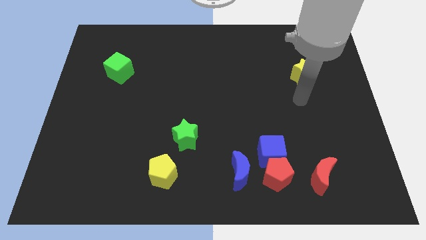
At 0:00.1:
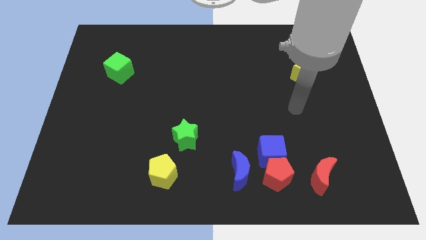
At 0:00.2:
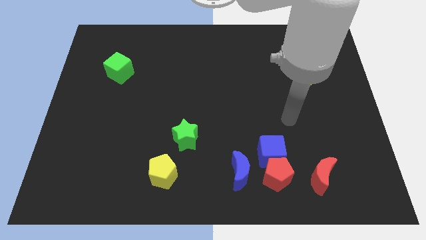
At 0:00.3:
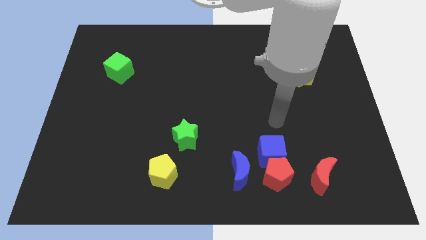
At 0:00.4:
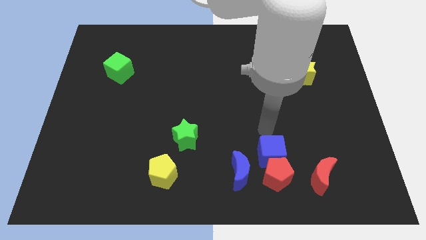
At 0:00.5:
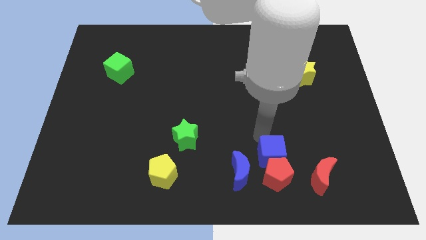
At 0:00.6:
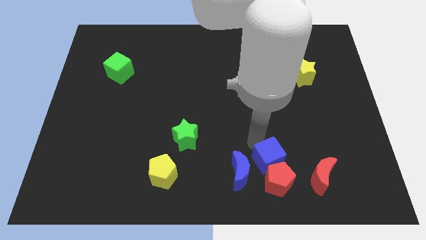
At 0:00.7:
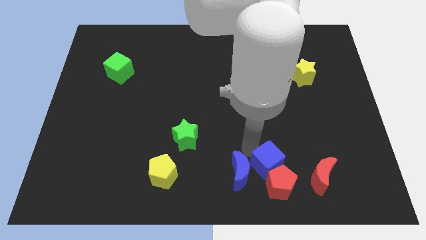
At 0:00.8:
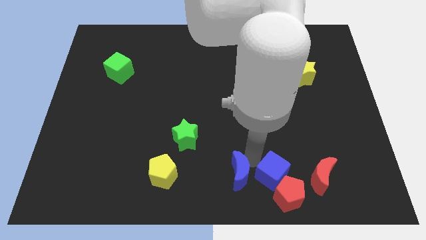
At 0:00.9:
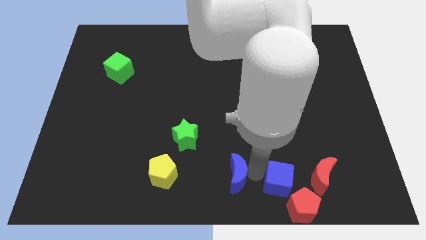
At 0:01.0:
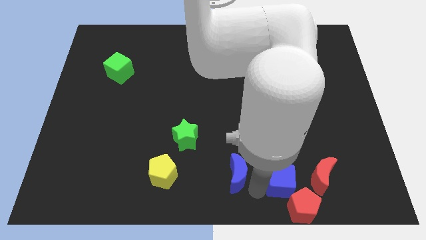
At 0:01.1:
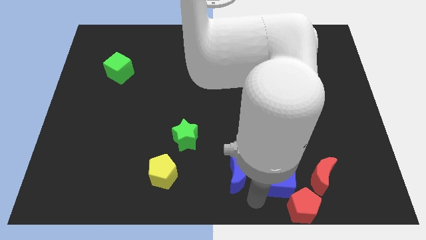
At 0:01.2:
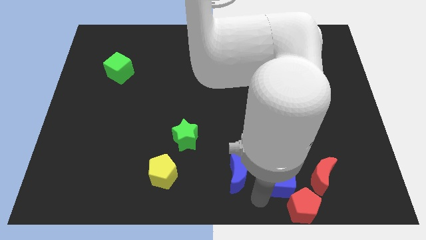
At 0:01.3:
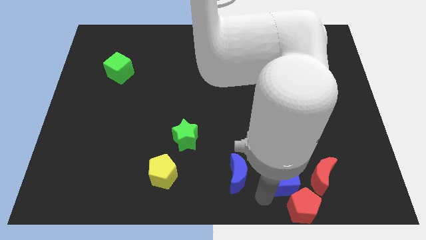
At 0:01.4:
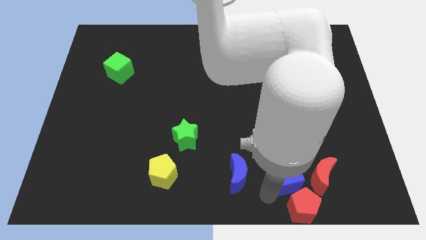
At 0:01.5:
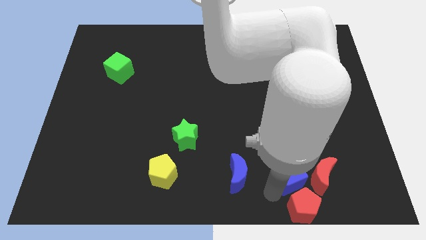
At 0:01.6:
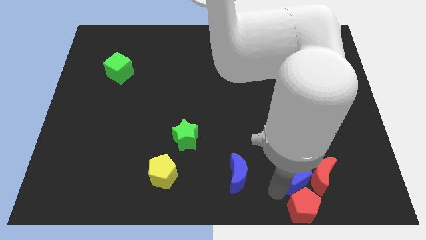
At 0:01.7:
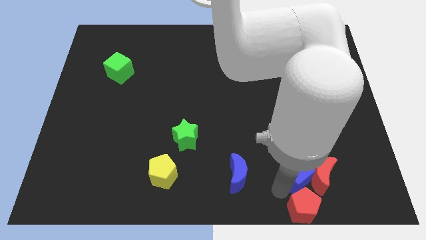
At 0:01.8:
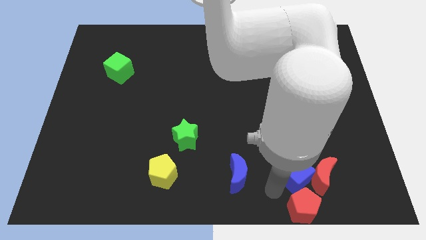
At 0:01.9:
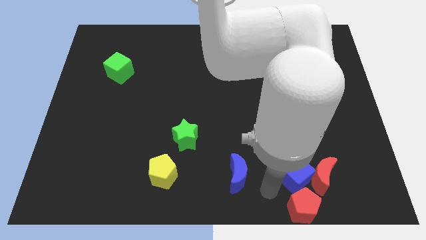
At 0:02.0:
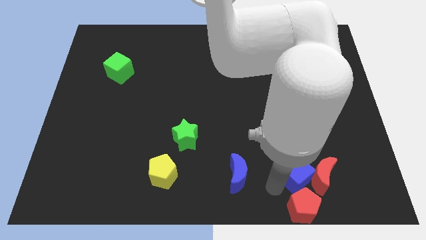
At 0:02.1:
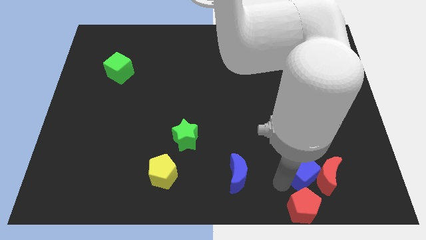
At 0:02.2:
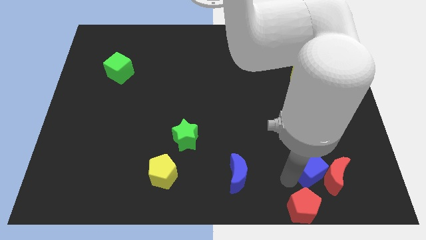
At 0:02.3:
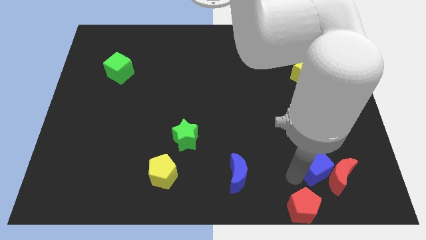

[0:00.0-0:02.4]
pull the blue cube apart from the red pentagon and blue moon

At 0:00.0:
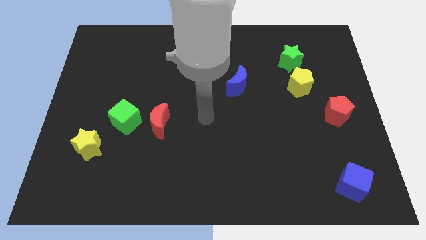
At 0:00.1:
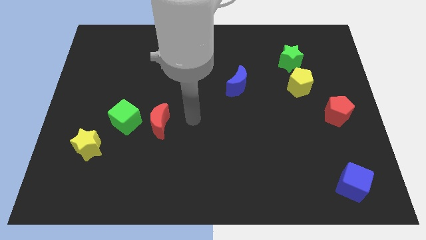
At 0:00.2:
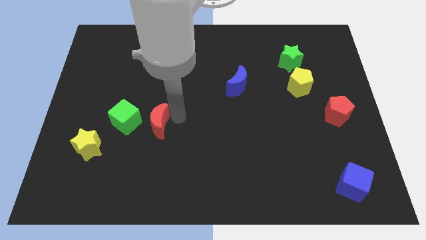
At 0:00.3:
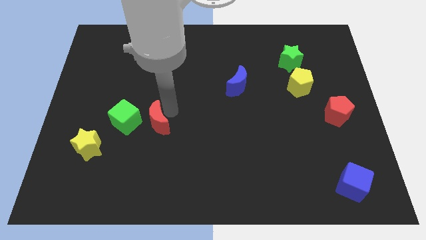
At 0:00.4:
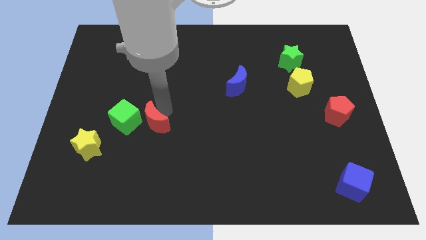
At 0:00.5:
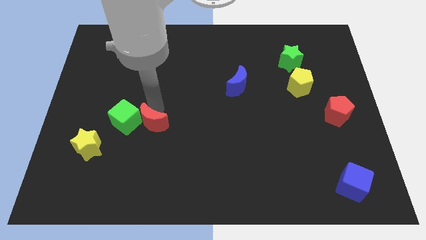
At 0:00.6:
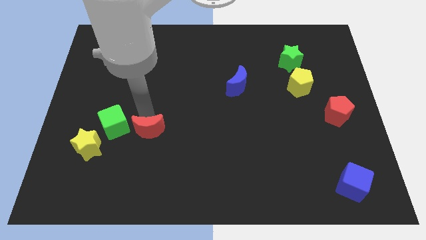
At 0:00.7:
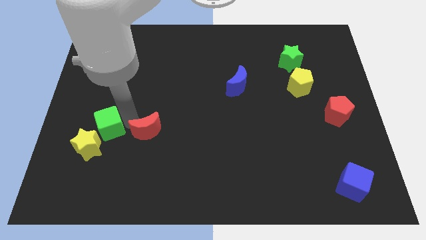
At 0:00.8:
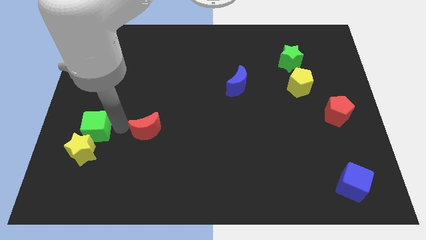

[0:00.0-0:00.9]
separate the red moon from the green cube

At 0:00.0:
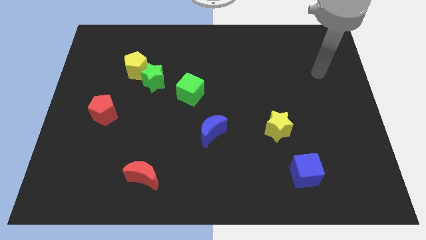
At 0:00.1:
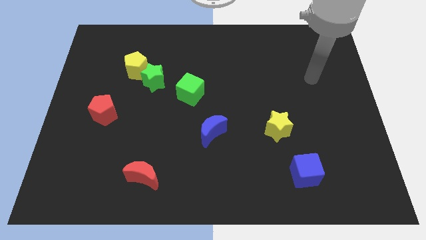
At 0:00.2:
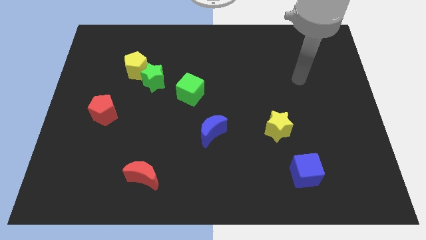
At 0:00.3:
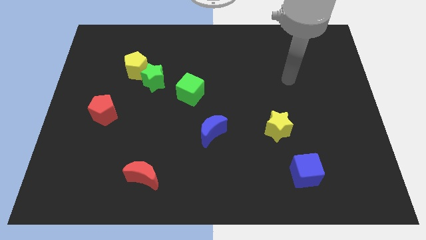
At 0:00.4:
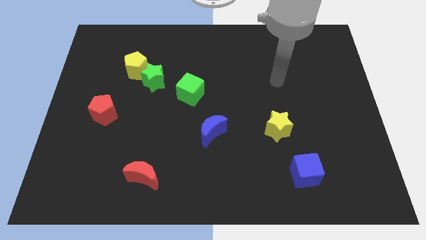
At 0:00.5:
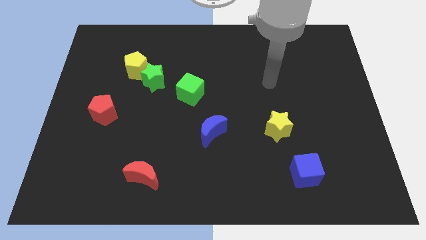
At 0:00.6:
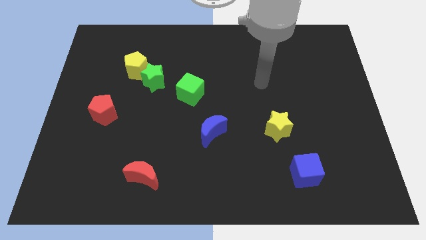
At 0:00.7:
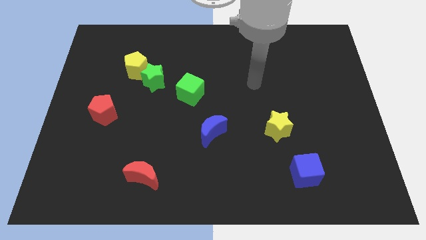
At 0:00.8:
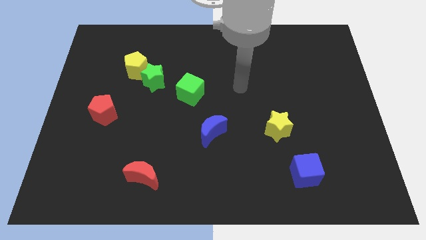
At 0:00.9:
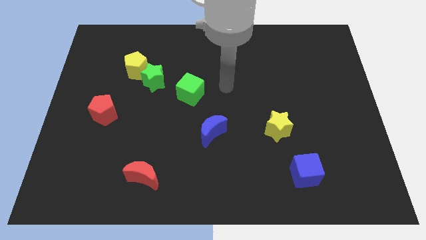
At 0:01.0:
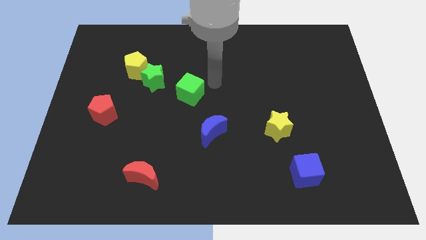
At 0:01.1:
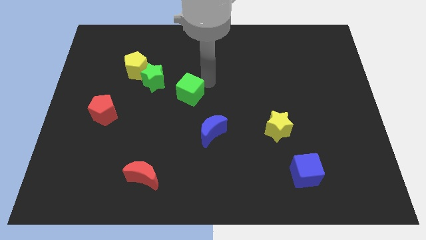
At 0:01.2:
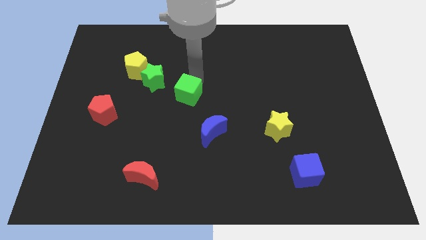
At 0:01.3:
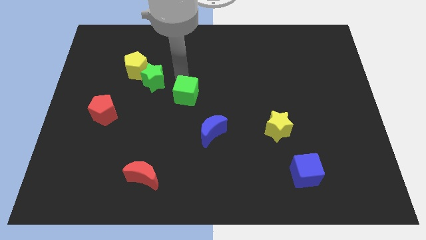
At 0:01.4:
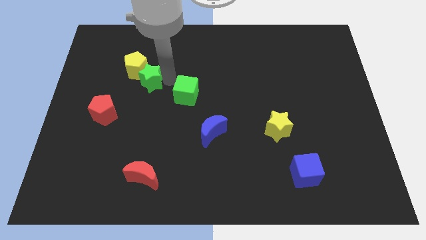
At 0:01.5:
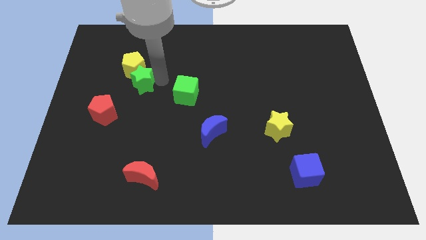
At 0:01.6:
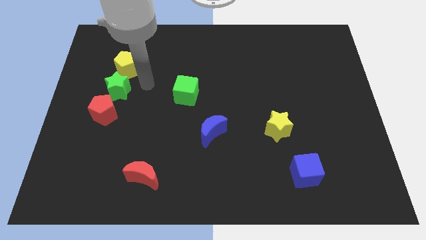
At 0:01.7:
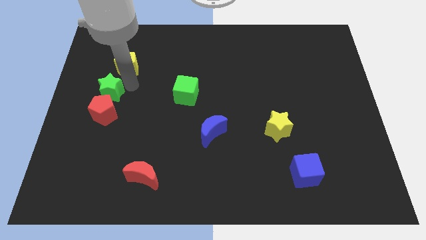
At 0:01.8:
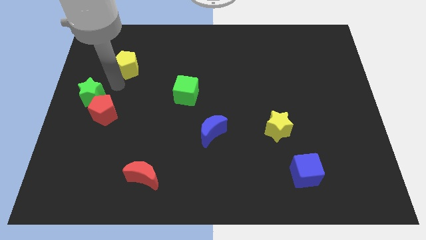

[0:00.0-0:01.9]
pull the yellow pentagon apart from the green star

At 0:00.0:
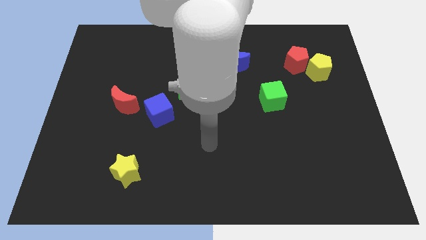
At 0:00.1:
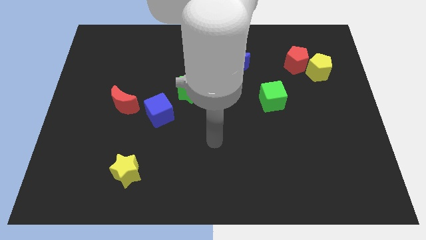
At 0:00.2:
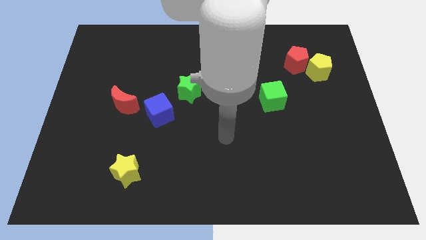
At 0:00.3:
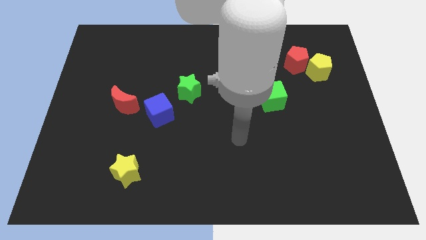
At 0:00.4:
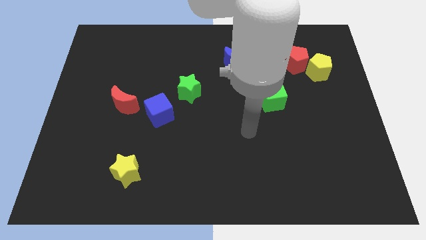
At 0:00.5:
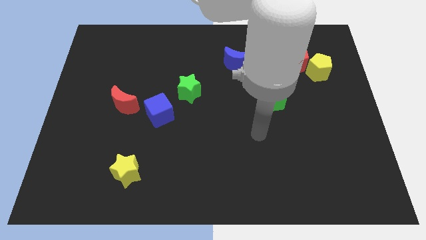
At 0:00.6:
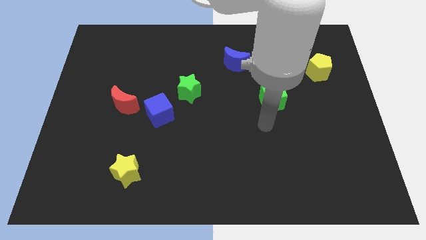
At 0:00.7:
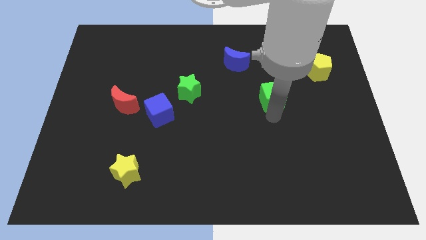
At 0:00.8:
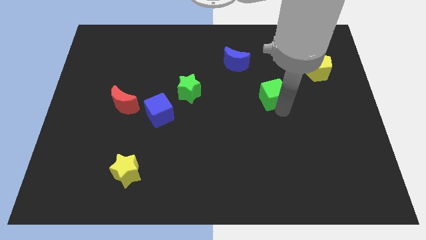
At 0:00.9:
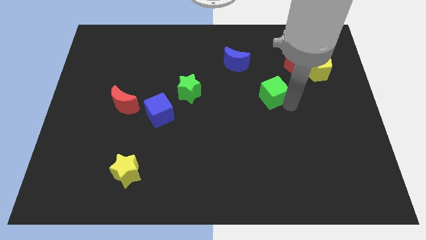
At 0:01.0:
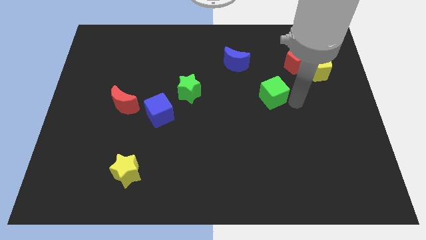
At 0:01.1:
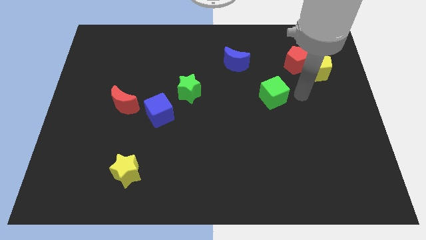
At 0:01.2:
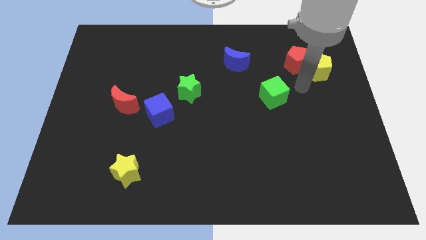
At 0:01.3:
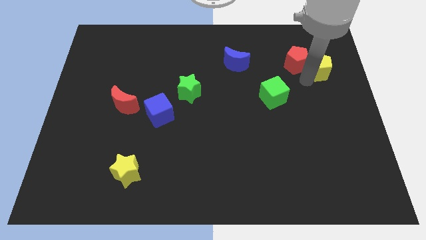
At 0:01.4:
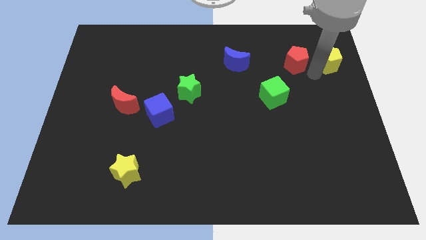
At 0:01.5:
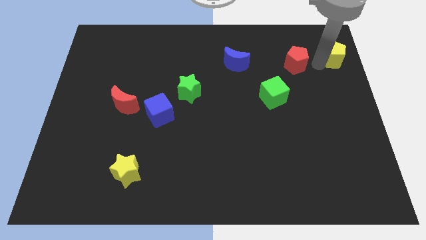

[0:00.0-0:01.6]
move the red pentagon away from the yellow pentagon

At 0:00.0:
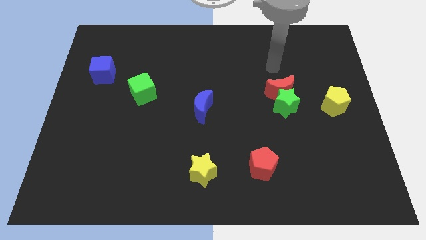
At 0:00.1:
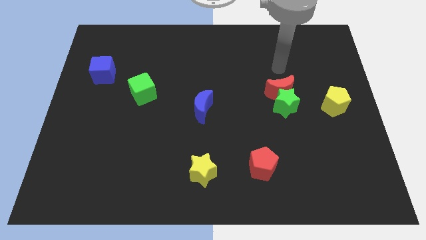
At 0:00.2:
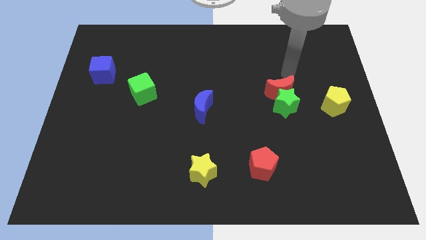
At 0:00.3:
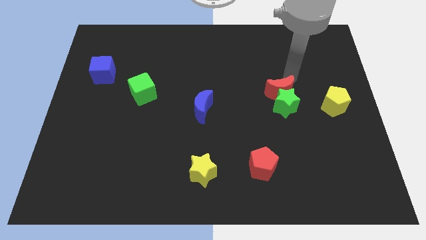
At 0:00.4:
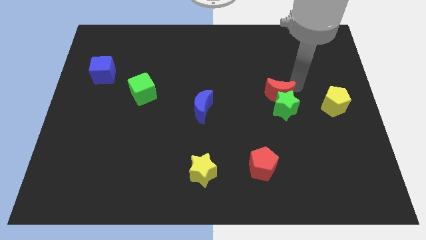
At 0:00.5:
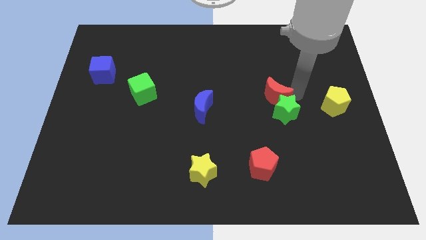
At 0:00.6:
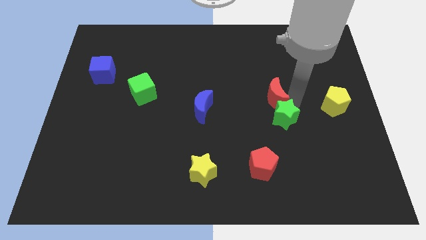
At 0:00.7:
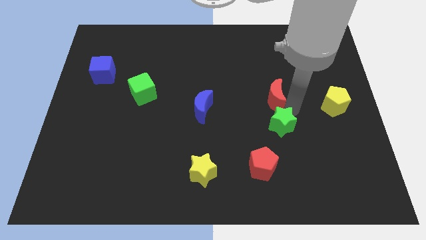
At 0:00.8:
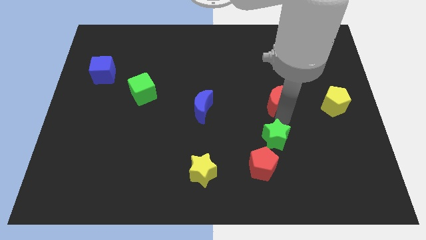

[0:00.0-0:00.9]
pull the red moon apart from the green star

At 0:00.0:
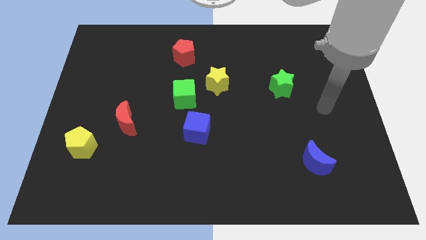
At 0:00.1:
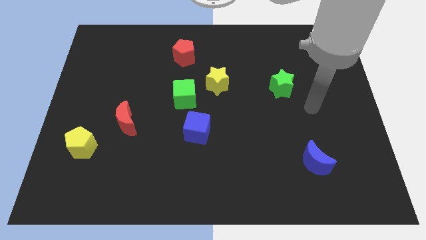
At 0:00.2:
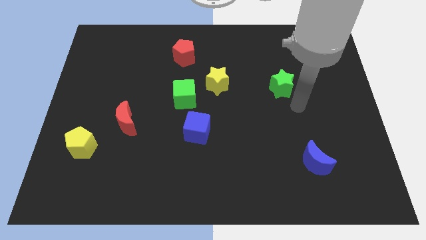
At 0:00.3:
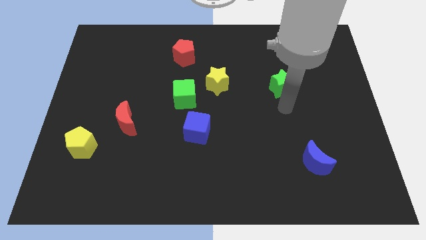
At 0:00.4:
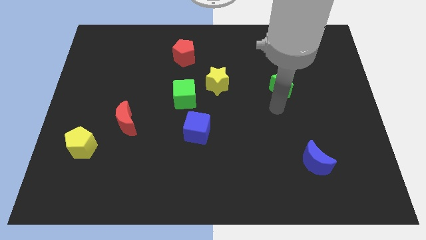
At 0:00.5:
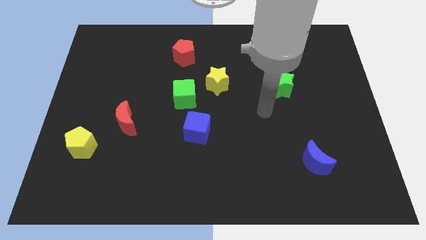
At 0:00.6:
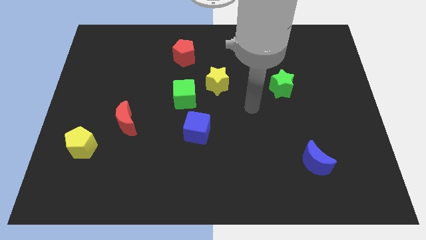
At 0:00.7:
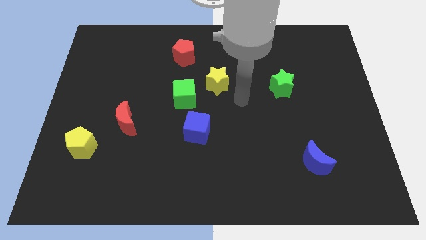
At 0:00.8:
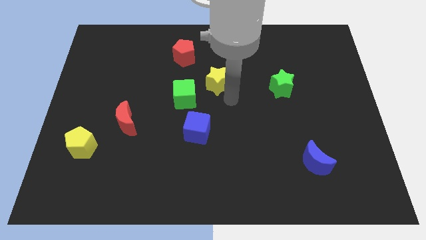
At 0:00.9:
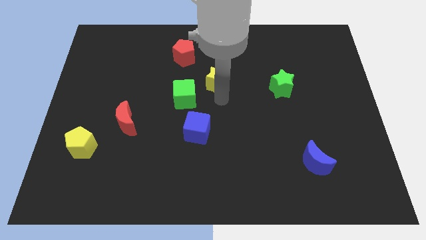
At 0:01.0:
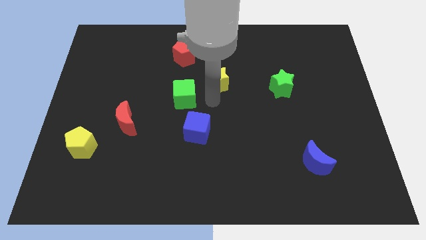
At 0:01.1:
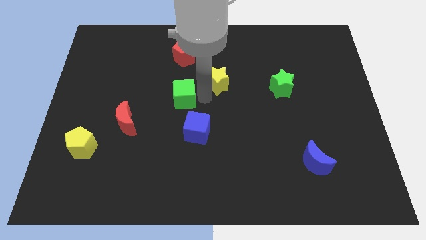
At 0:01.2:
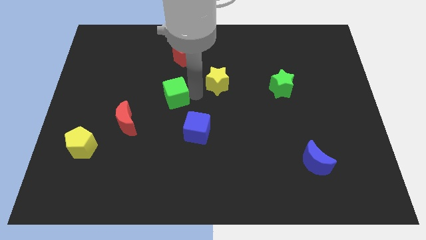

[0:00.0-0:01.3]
separate the yellow star from the green cube

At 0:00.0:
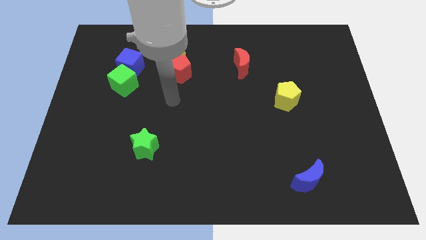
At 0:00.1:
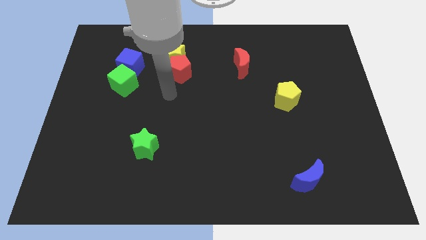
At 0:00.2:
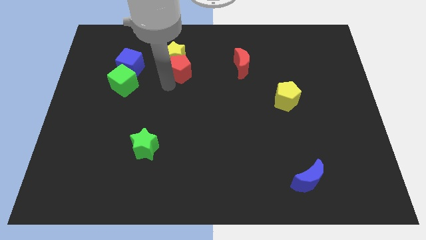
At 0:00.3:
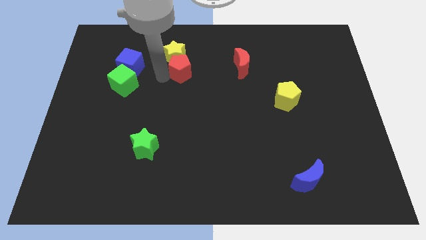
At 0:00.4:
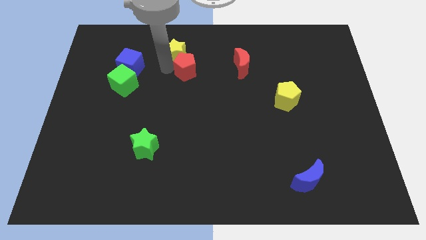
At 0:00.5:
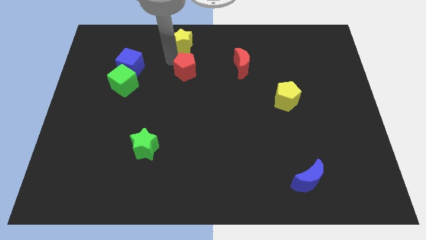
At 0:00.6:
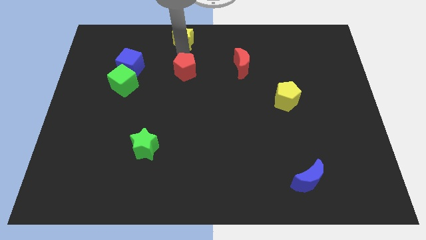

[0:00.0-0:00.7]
move the red pentagon away from the yellow star
